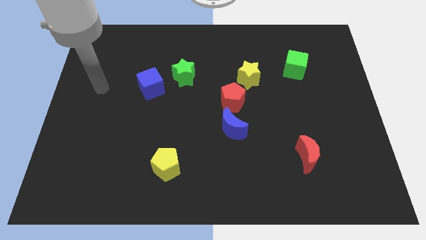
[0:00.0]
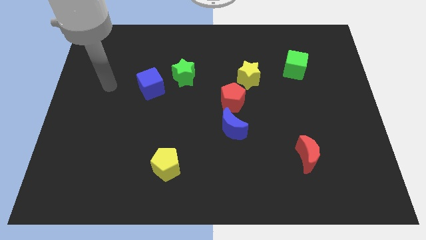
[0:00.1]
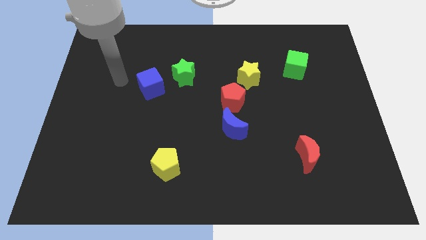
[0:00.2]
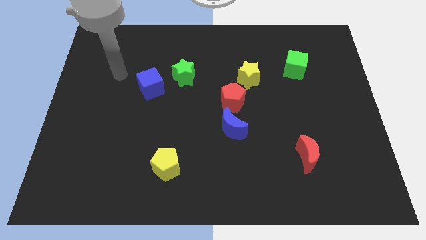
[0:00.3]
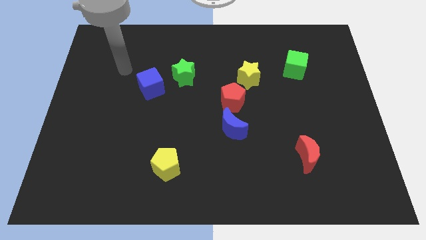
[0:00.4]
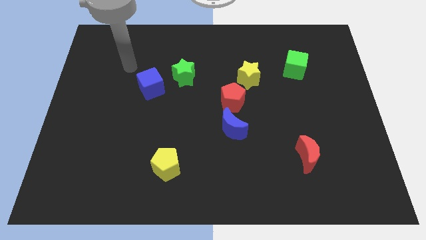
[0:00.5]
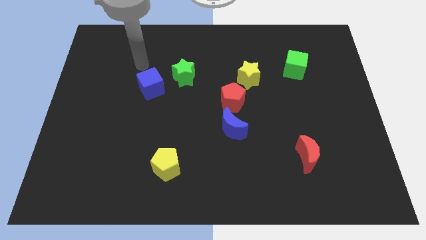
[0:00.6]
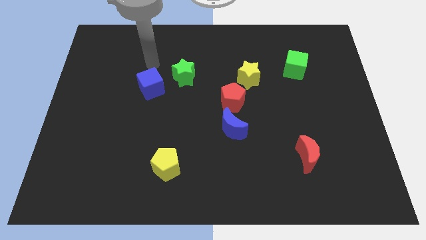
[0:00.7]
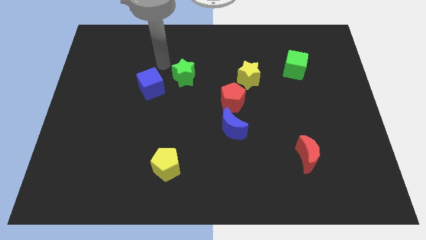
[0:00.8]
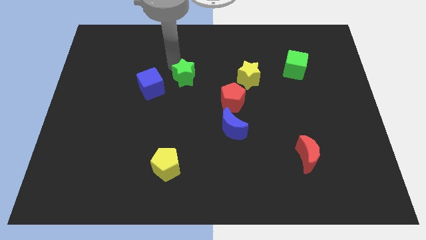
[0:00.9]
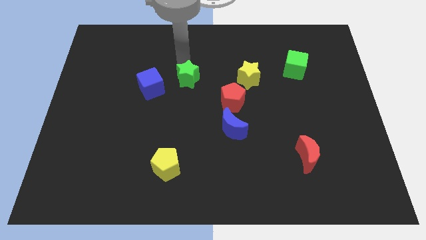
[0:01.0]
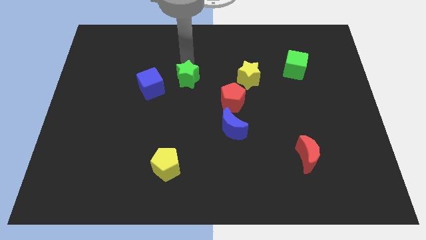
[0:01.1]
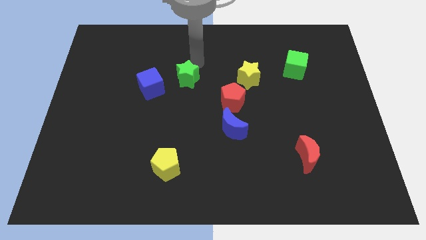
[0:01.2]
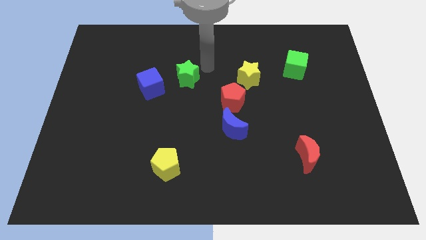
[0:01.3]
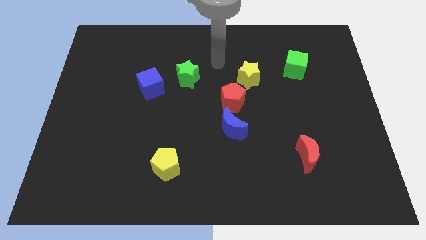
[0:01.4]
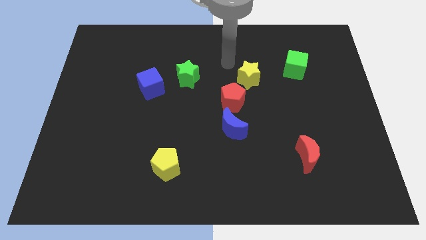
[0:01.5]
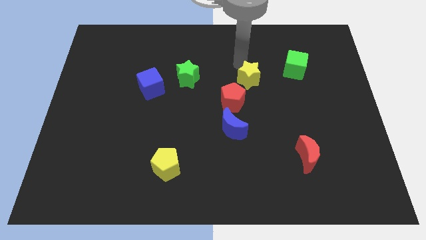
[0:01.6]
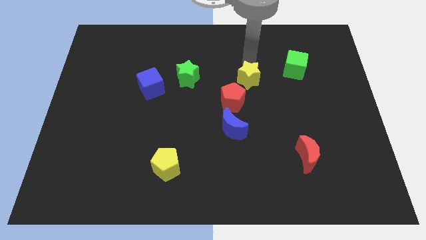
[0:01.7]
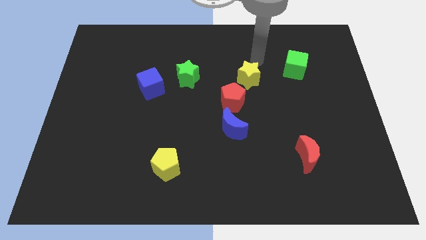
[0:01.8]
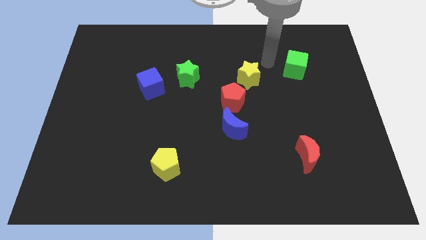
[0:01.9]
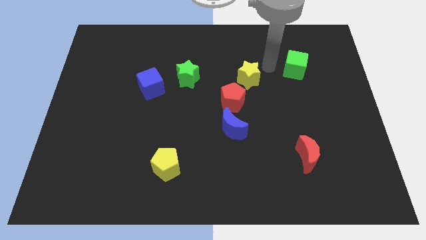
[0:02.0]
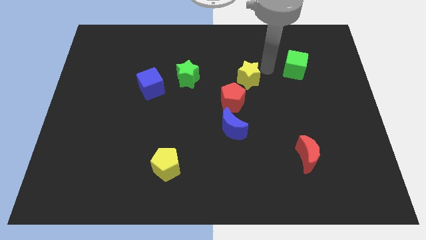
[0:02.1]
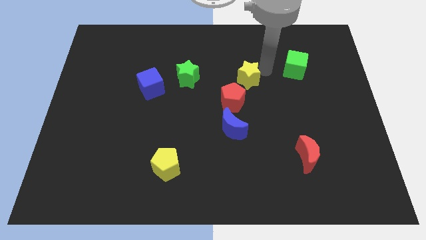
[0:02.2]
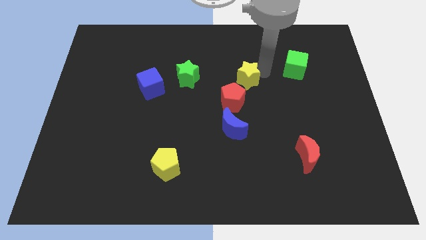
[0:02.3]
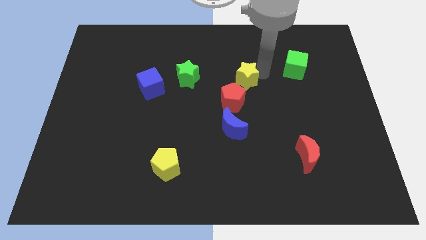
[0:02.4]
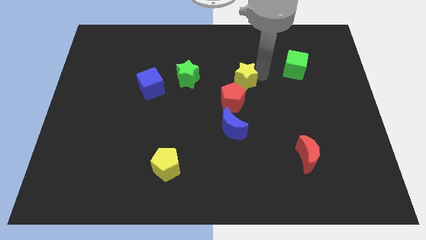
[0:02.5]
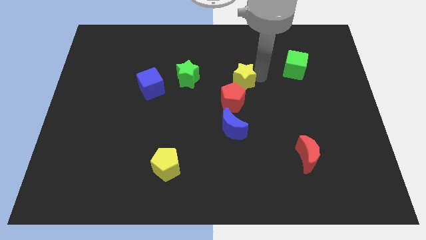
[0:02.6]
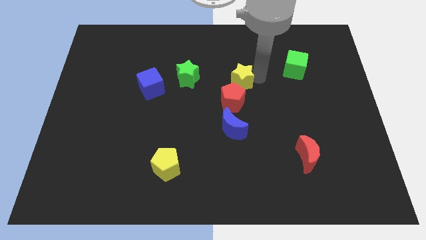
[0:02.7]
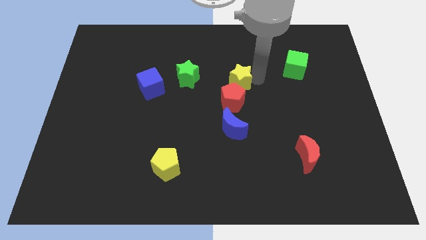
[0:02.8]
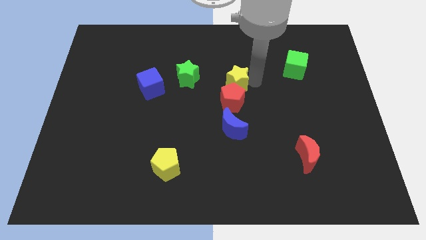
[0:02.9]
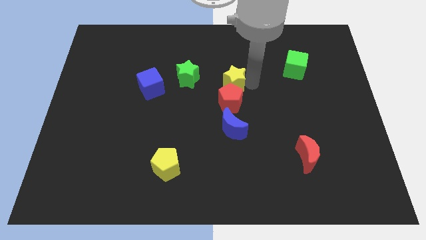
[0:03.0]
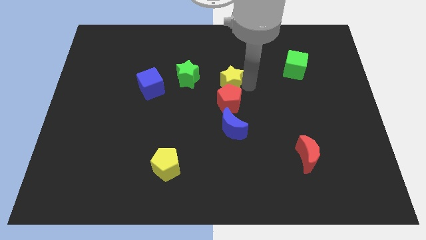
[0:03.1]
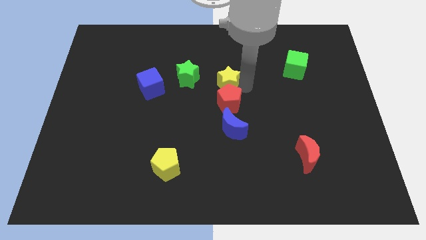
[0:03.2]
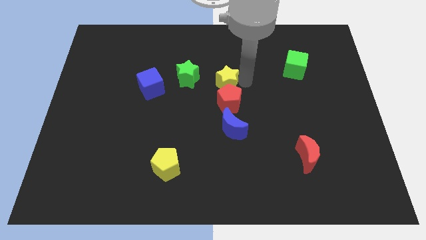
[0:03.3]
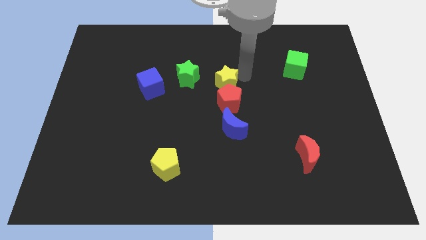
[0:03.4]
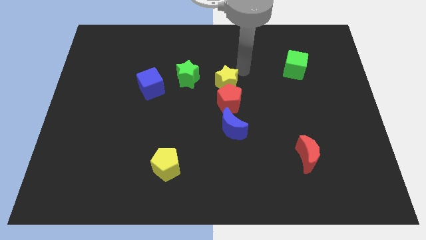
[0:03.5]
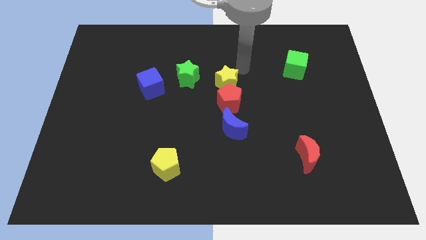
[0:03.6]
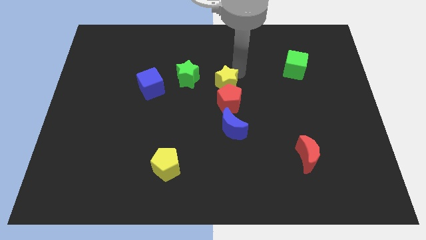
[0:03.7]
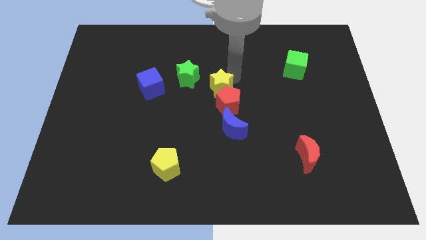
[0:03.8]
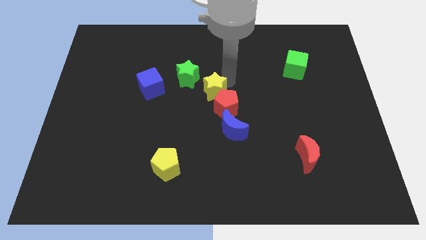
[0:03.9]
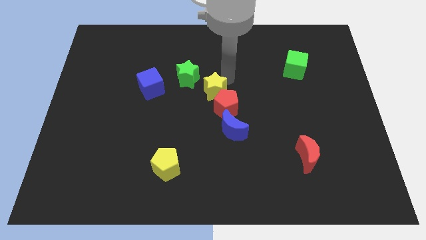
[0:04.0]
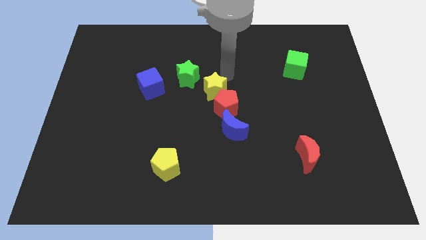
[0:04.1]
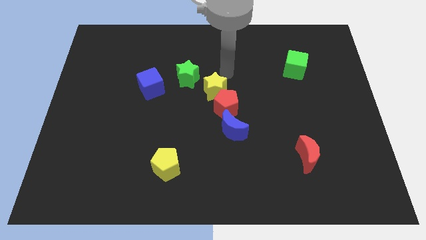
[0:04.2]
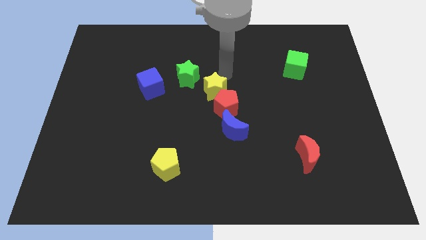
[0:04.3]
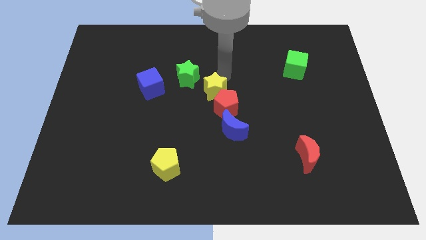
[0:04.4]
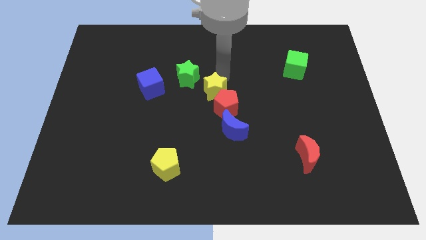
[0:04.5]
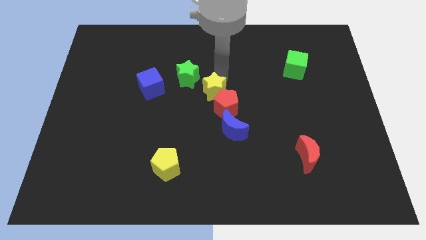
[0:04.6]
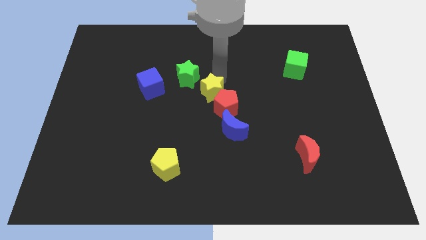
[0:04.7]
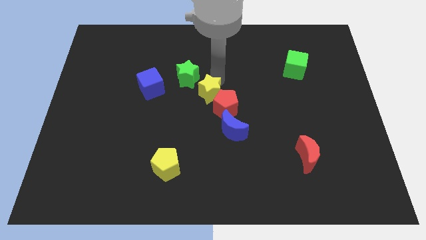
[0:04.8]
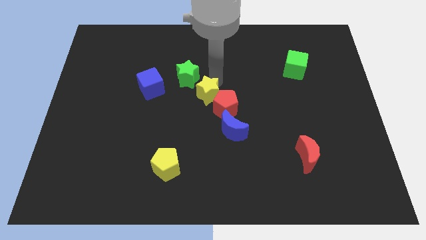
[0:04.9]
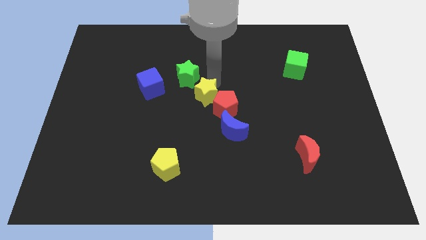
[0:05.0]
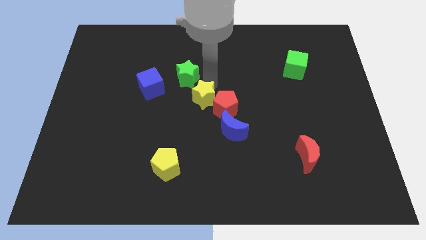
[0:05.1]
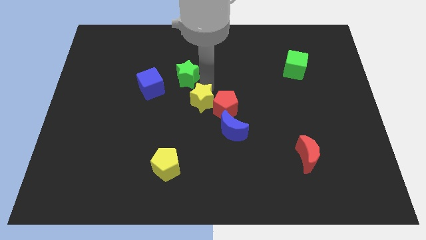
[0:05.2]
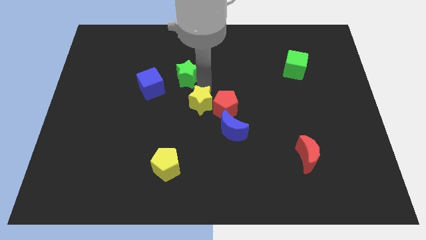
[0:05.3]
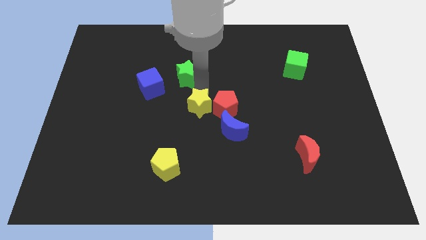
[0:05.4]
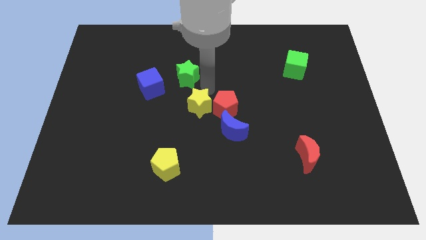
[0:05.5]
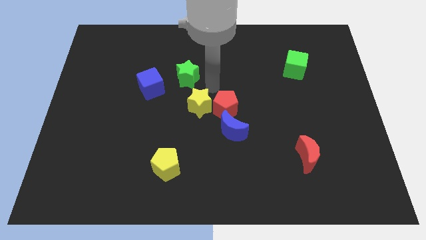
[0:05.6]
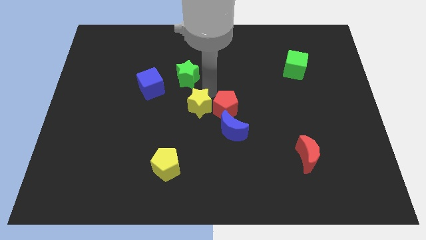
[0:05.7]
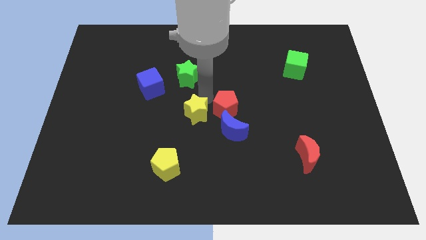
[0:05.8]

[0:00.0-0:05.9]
move the yellow star just left of the blue moon

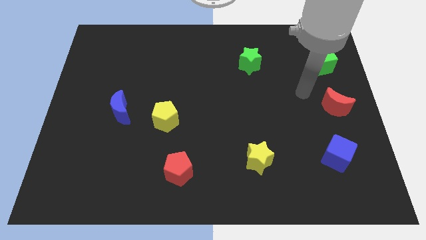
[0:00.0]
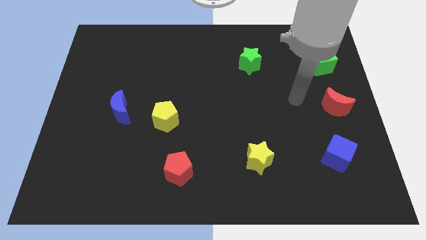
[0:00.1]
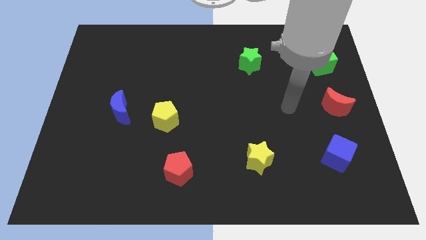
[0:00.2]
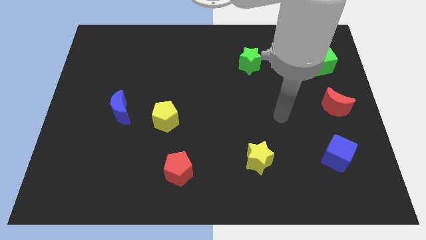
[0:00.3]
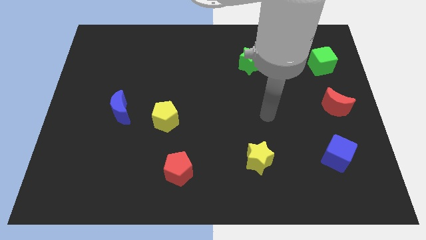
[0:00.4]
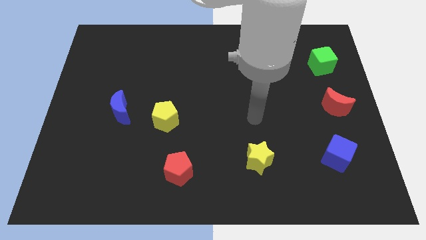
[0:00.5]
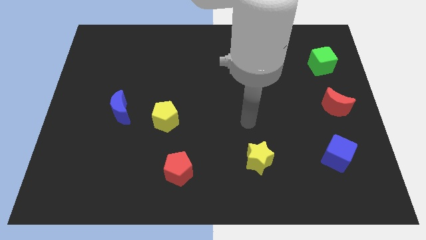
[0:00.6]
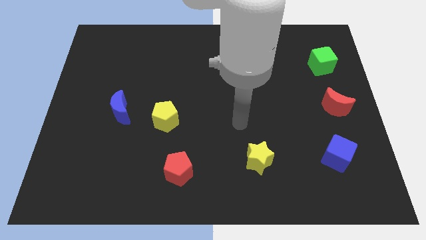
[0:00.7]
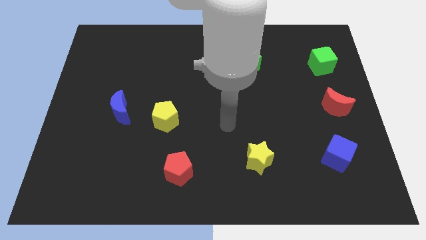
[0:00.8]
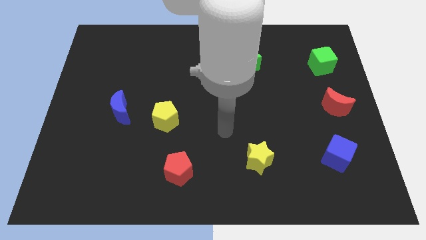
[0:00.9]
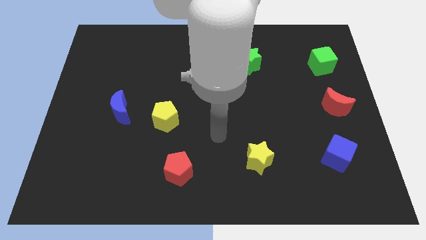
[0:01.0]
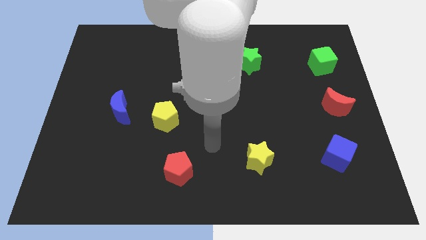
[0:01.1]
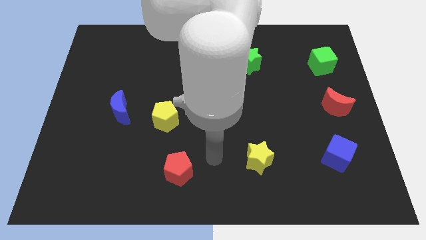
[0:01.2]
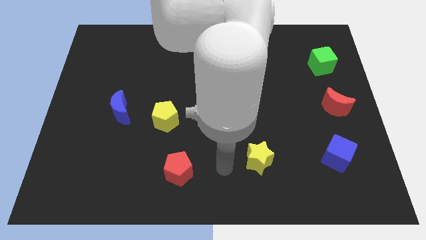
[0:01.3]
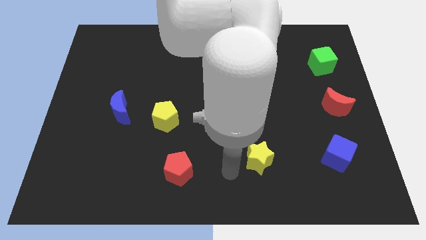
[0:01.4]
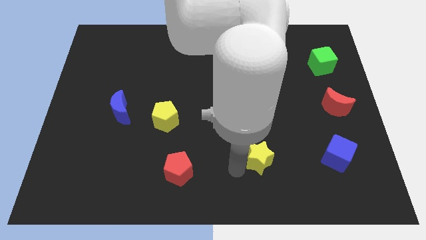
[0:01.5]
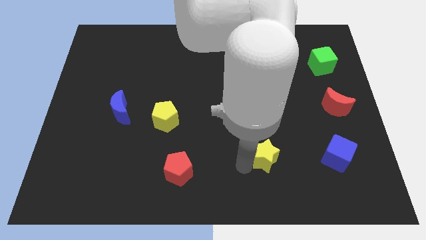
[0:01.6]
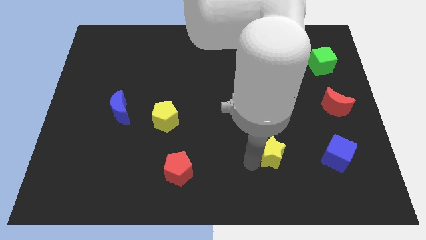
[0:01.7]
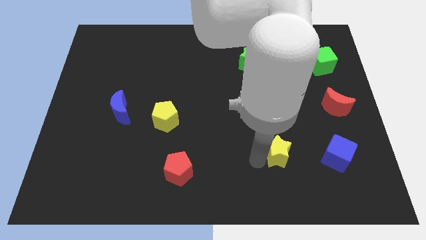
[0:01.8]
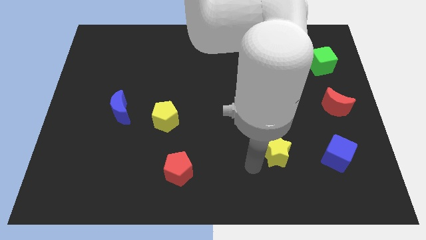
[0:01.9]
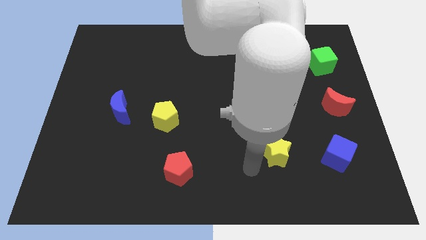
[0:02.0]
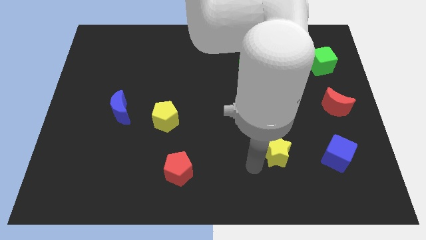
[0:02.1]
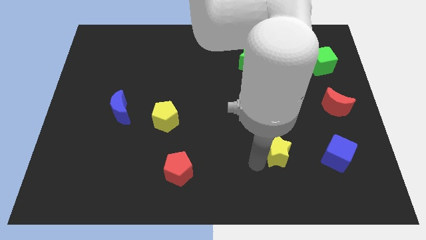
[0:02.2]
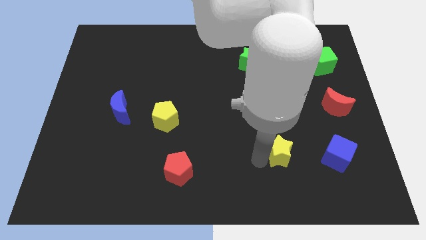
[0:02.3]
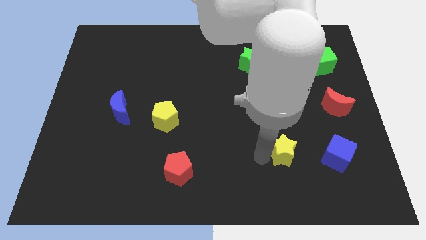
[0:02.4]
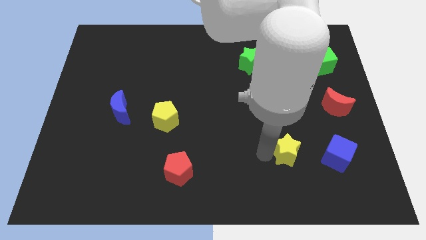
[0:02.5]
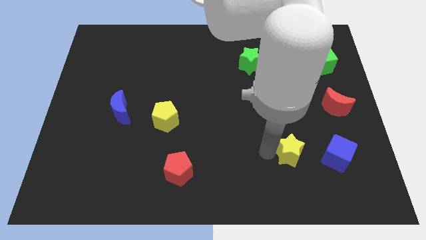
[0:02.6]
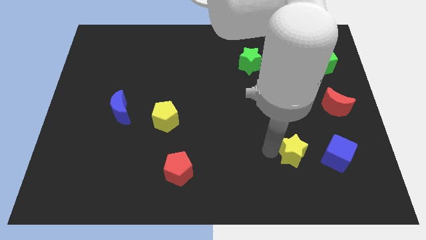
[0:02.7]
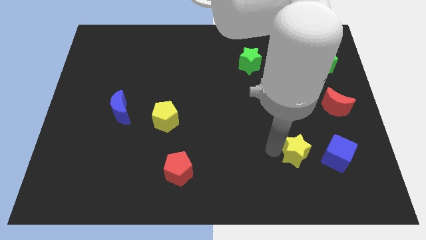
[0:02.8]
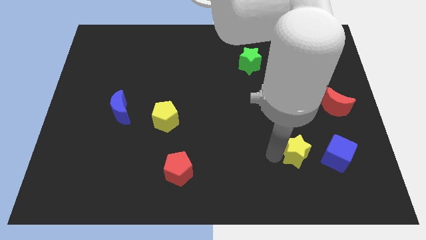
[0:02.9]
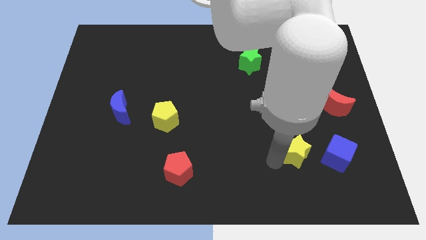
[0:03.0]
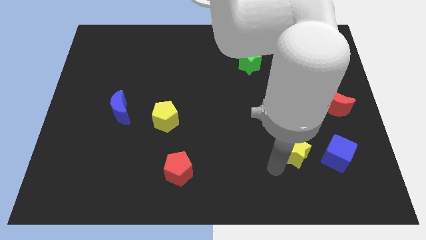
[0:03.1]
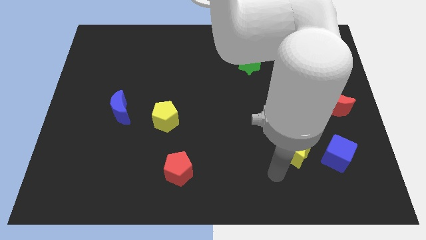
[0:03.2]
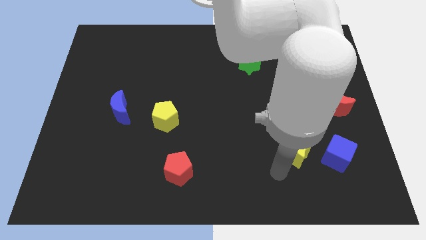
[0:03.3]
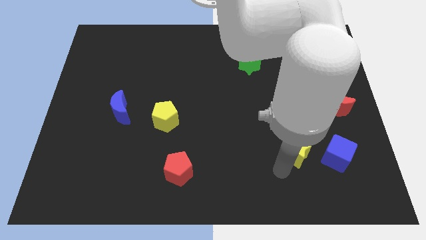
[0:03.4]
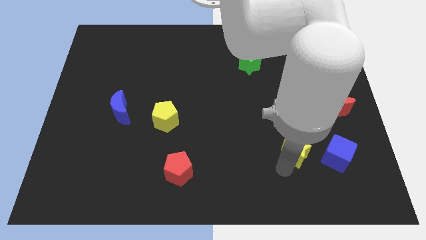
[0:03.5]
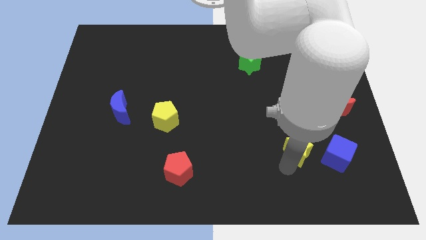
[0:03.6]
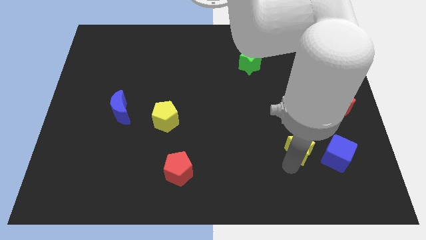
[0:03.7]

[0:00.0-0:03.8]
move the yellow star to the top left of the blue cube
